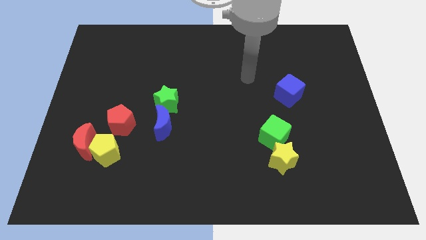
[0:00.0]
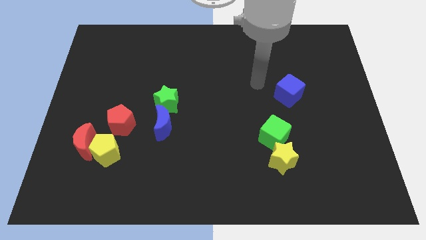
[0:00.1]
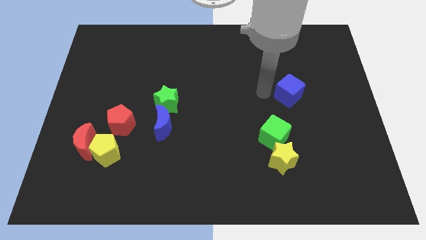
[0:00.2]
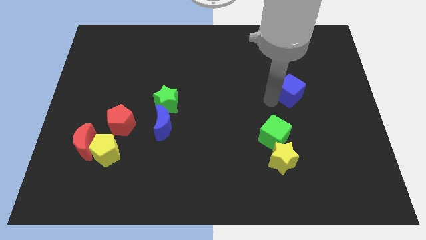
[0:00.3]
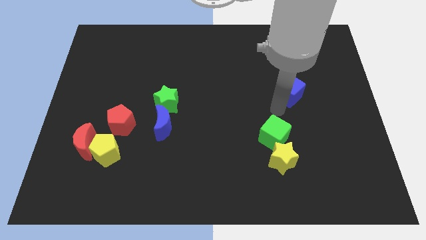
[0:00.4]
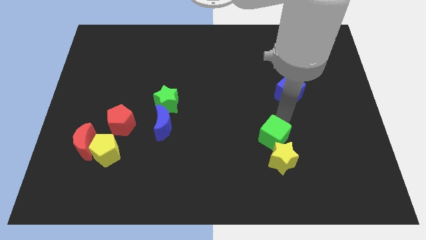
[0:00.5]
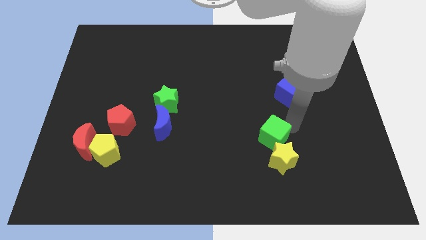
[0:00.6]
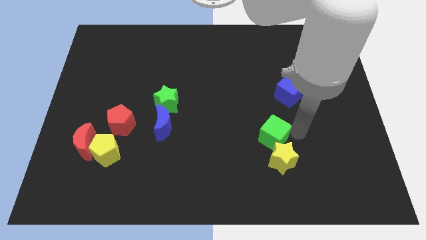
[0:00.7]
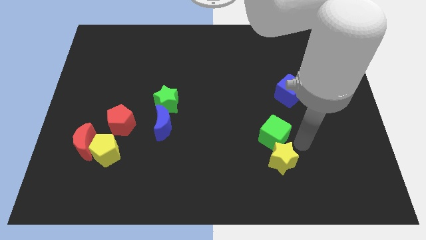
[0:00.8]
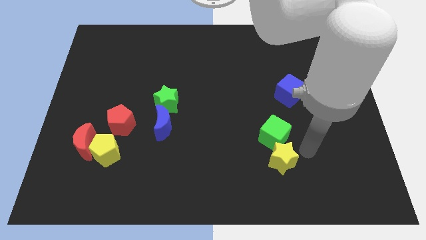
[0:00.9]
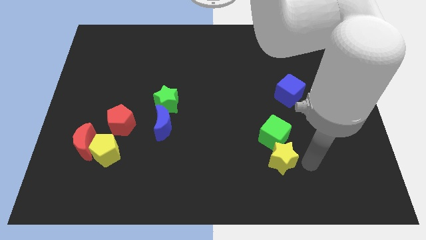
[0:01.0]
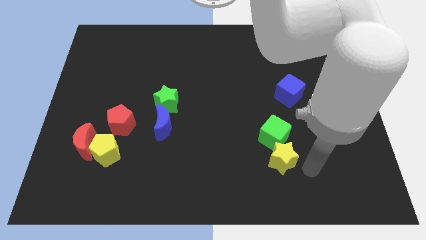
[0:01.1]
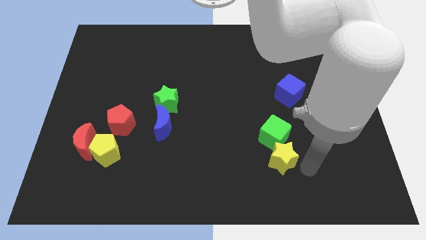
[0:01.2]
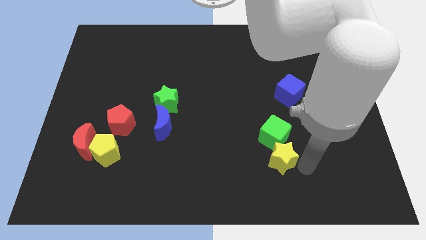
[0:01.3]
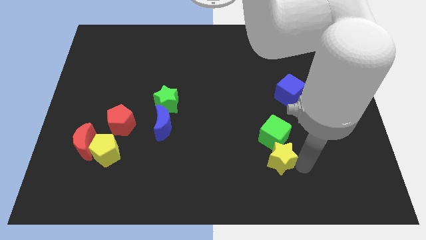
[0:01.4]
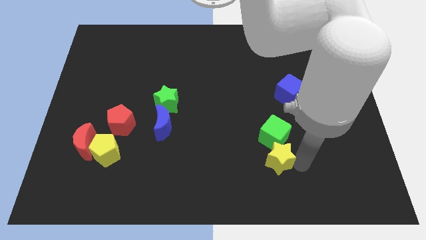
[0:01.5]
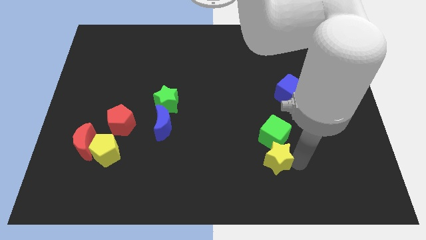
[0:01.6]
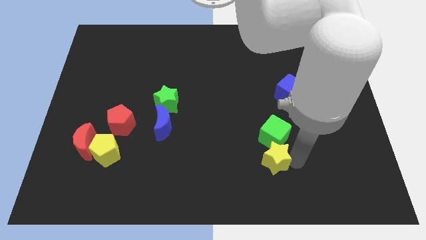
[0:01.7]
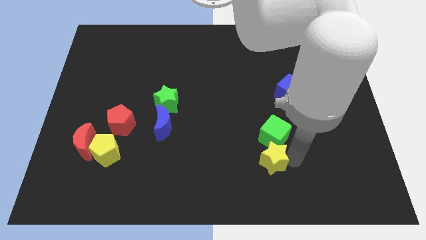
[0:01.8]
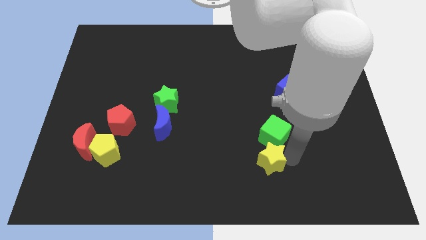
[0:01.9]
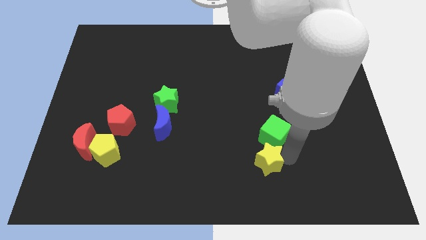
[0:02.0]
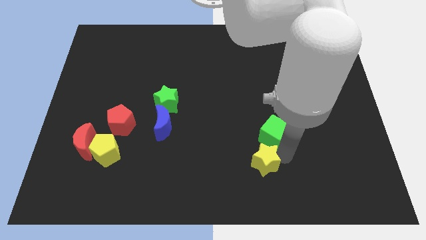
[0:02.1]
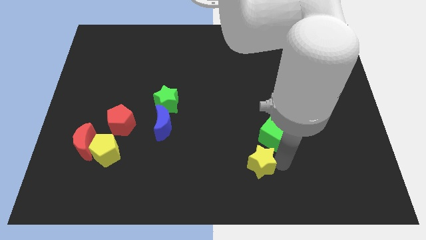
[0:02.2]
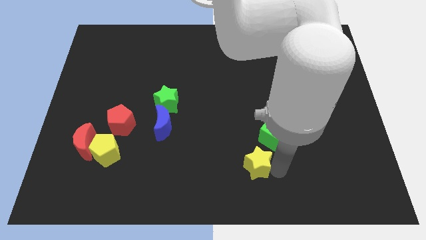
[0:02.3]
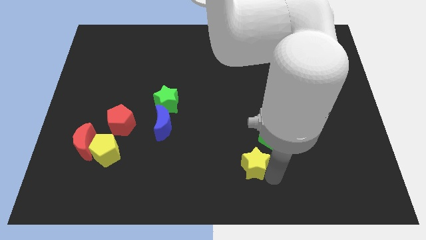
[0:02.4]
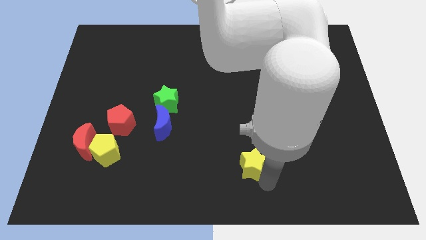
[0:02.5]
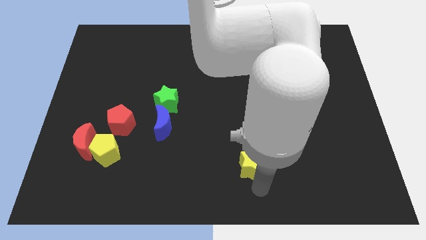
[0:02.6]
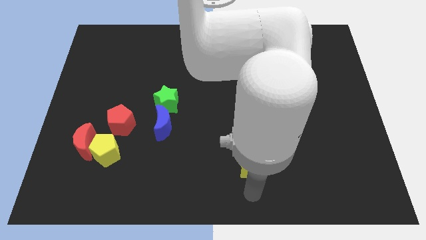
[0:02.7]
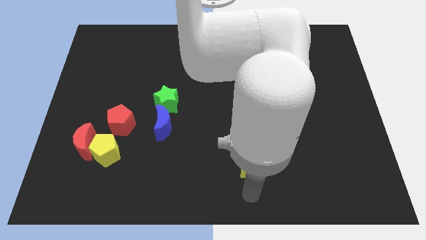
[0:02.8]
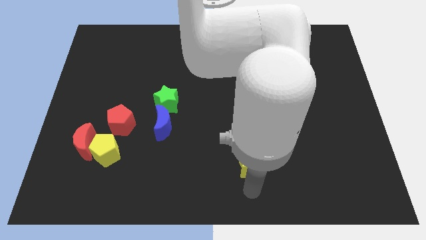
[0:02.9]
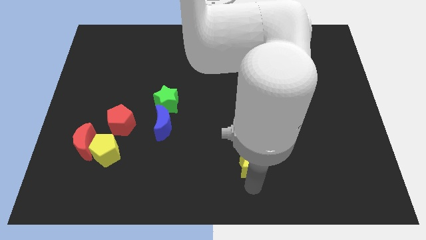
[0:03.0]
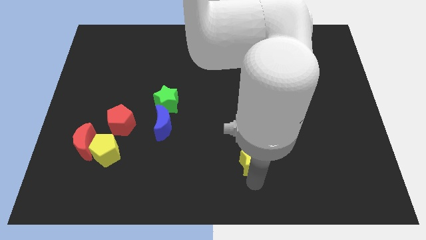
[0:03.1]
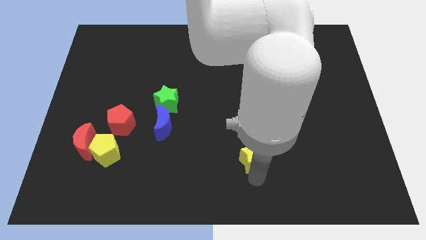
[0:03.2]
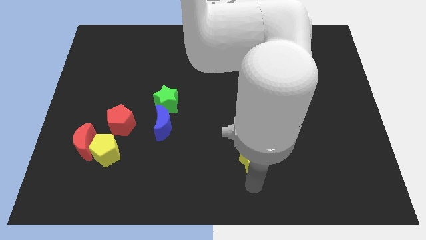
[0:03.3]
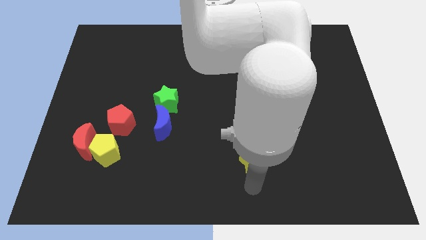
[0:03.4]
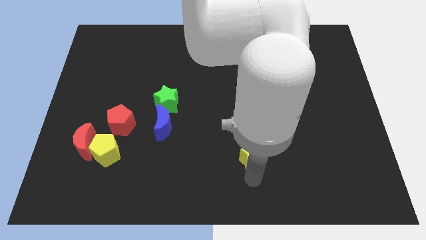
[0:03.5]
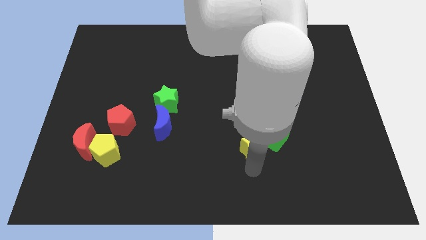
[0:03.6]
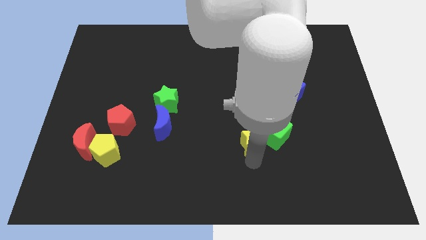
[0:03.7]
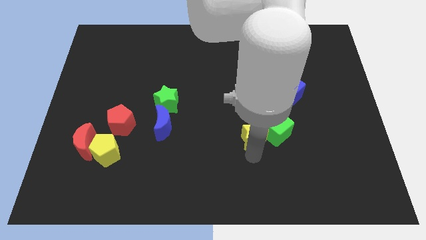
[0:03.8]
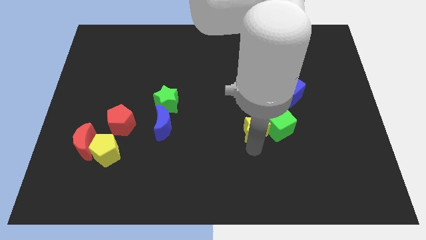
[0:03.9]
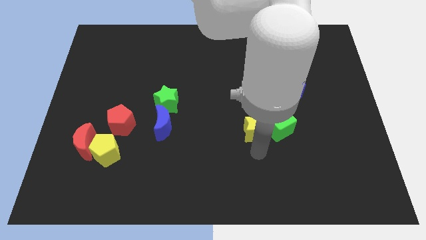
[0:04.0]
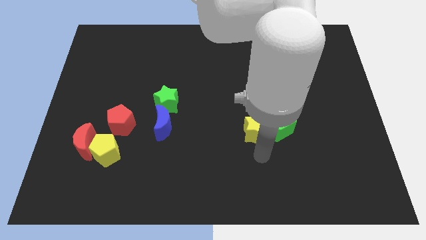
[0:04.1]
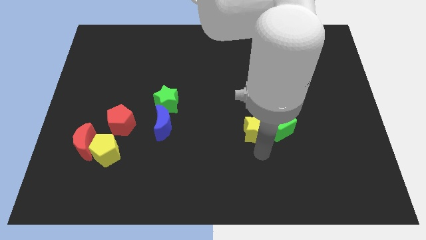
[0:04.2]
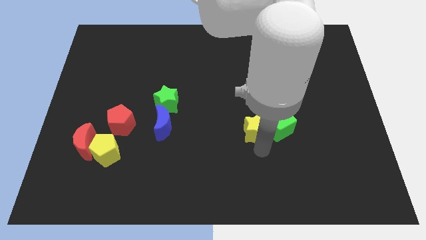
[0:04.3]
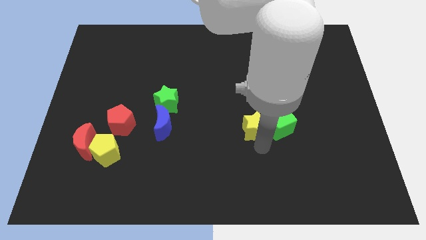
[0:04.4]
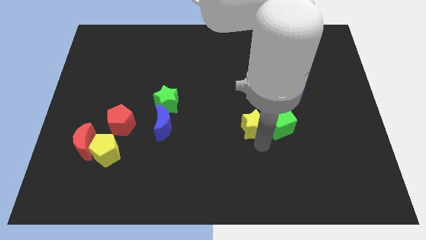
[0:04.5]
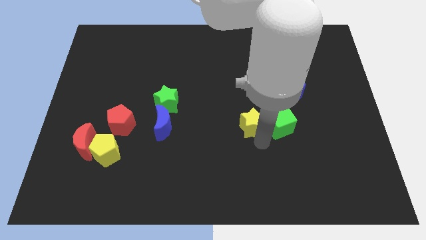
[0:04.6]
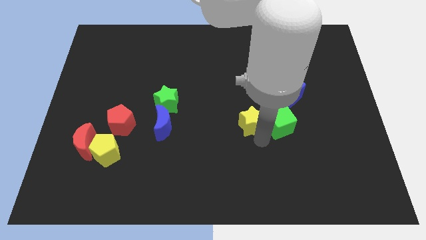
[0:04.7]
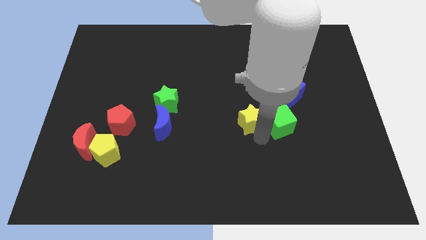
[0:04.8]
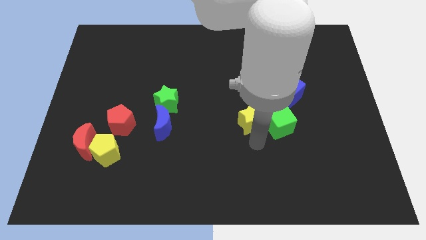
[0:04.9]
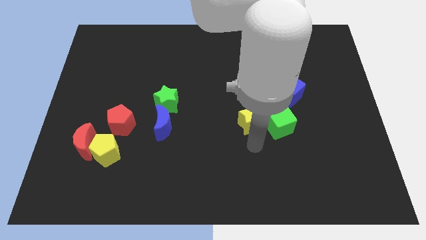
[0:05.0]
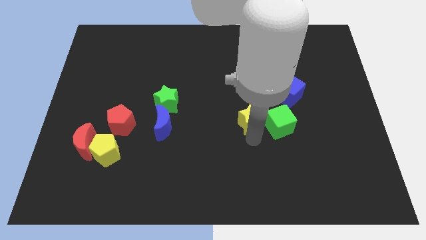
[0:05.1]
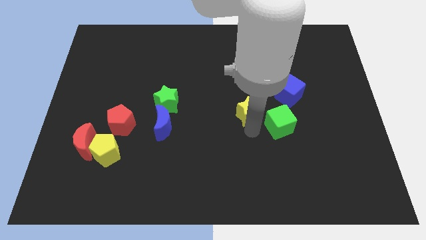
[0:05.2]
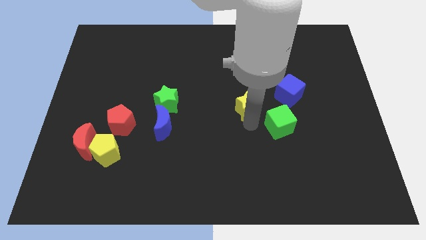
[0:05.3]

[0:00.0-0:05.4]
slide the yellow star left of the blue cube

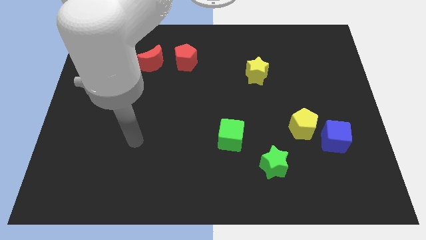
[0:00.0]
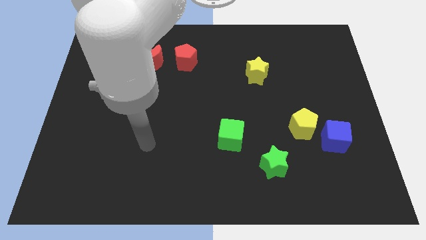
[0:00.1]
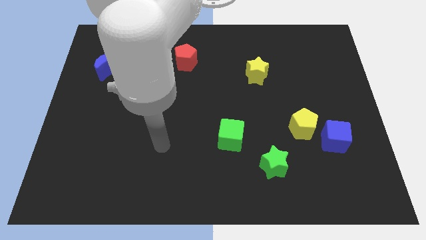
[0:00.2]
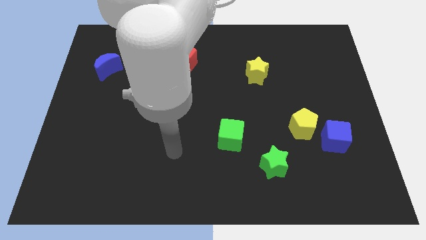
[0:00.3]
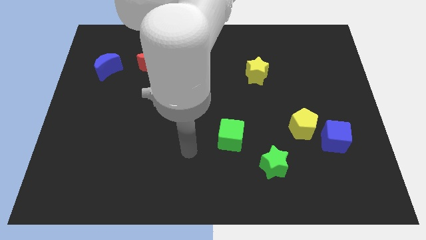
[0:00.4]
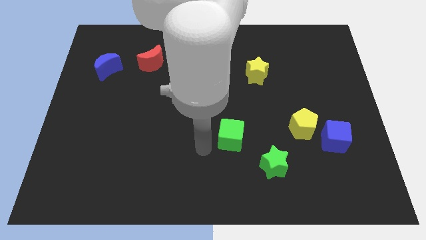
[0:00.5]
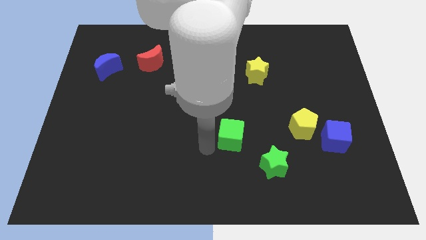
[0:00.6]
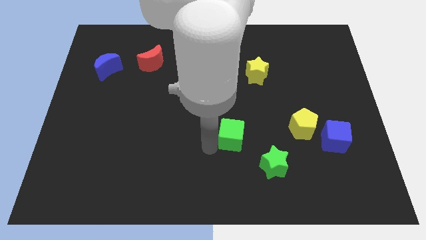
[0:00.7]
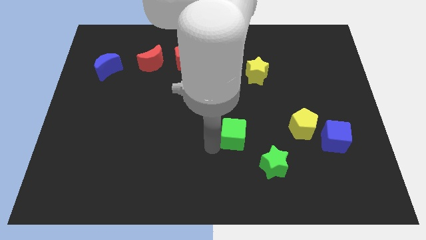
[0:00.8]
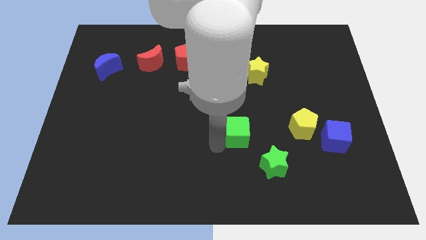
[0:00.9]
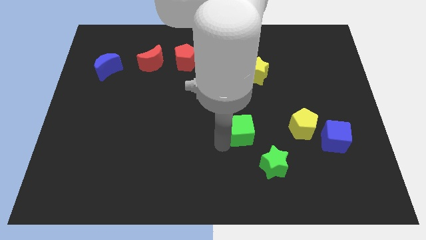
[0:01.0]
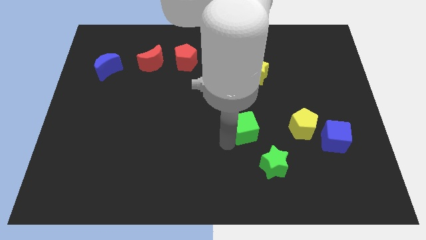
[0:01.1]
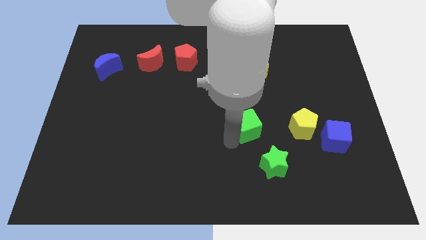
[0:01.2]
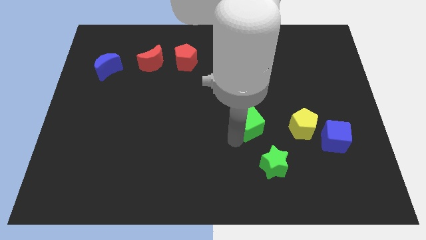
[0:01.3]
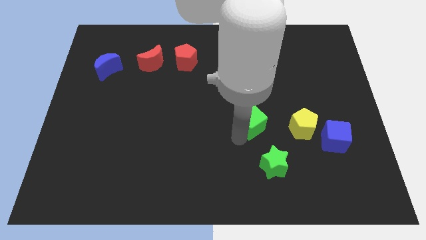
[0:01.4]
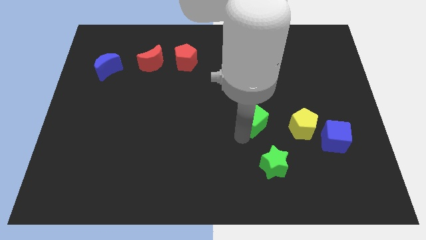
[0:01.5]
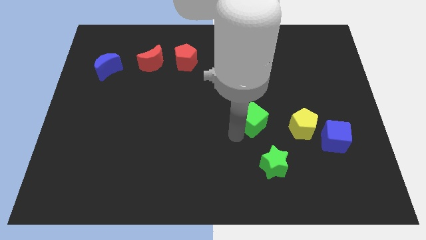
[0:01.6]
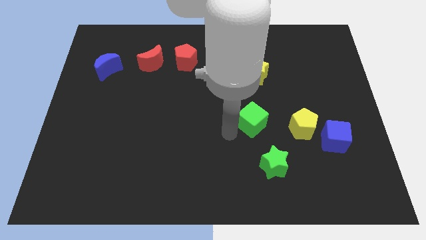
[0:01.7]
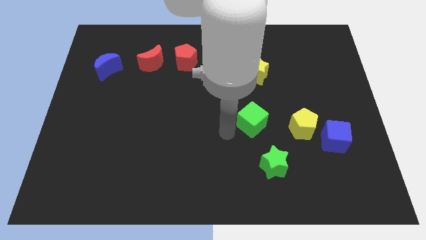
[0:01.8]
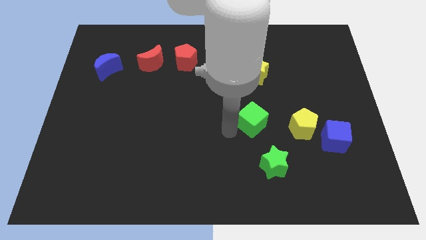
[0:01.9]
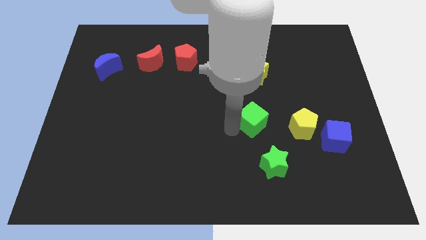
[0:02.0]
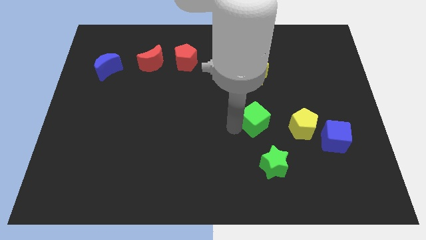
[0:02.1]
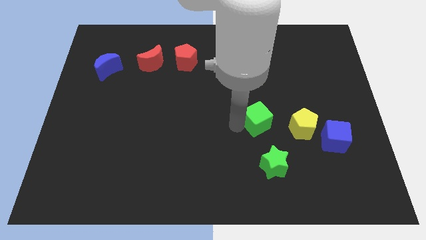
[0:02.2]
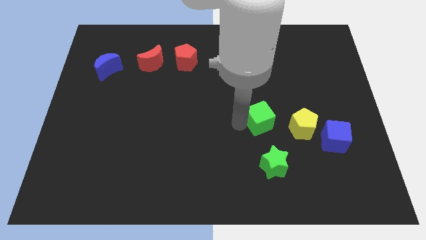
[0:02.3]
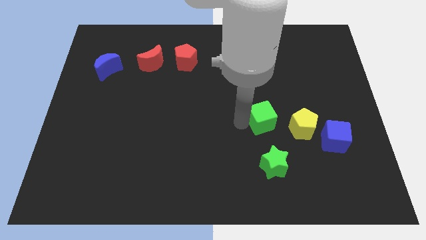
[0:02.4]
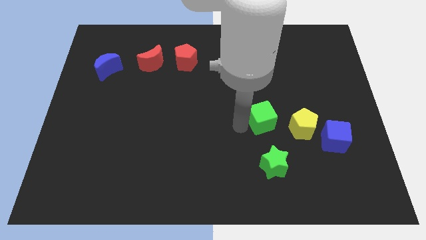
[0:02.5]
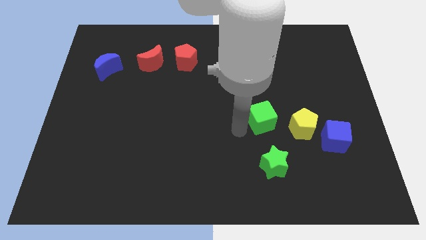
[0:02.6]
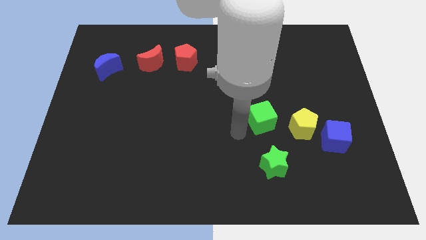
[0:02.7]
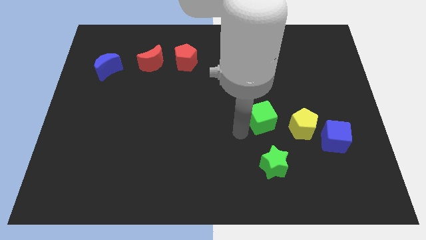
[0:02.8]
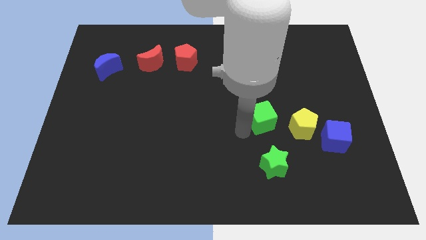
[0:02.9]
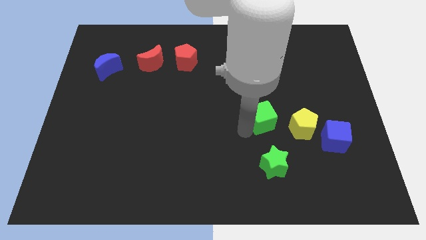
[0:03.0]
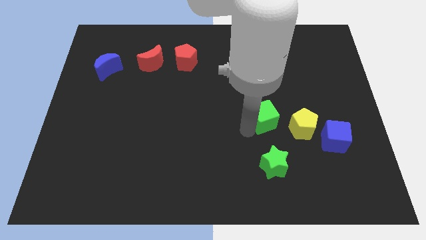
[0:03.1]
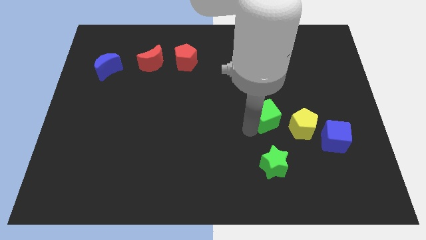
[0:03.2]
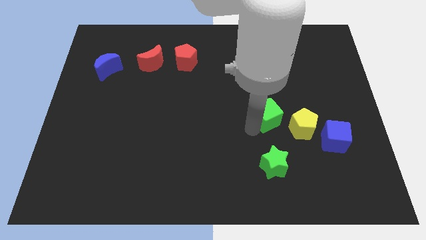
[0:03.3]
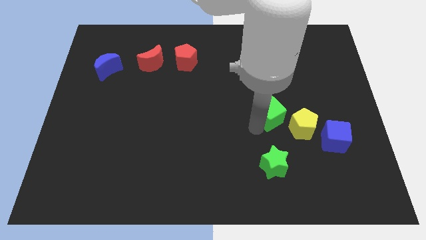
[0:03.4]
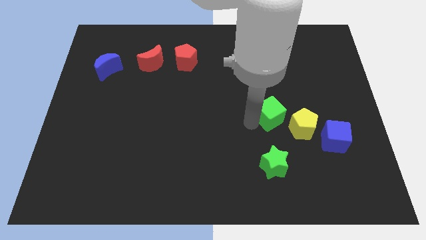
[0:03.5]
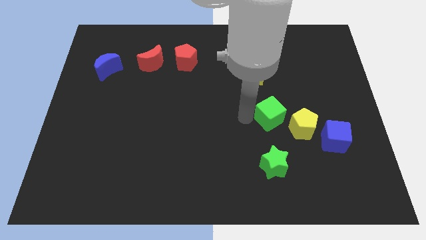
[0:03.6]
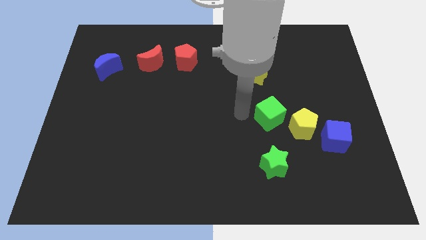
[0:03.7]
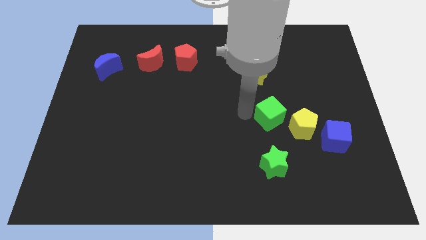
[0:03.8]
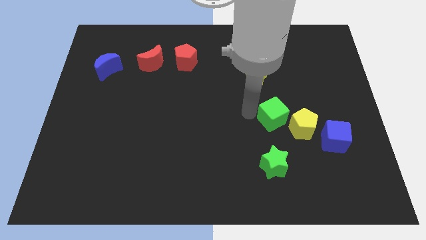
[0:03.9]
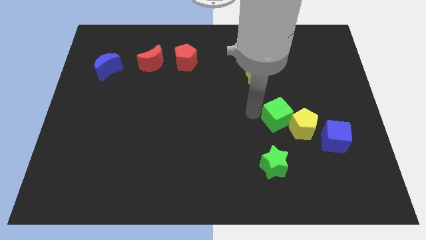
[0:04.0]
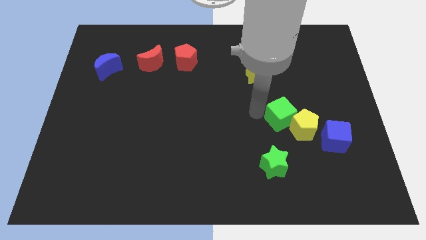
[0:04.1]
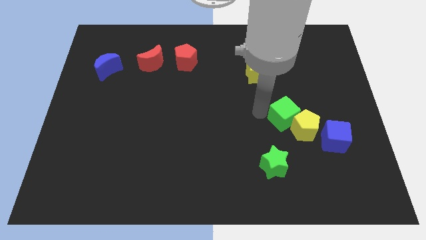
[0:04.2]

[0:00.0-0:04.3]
move the green cube to the top left of the blue cube
